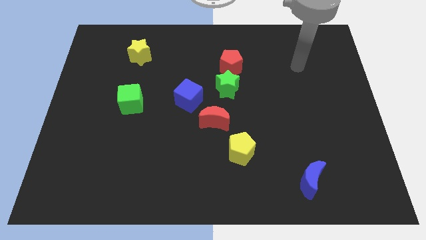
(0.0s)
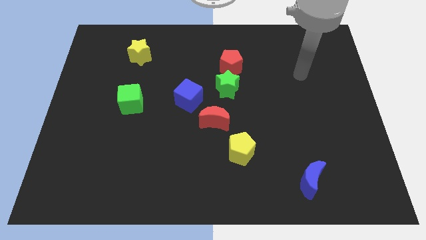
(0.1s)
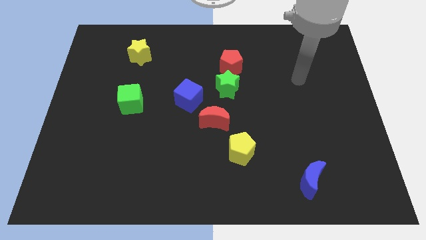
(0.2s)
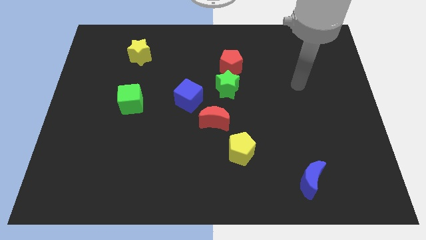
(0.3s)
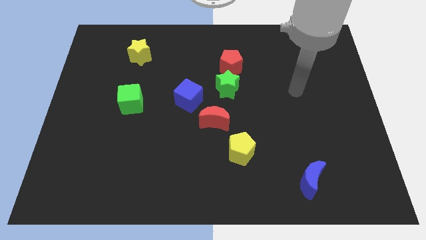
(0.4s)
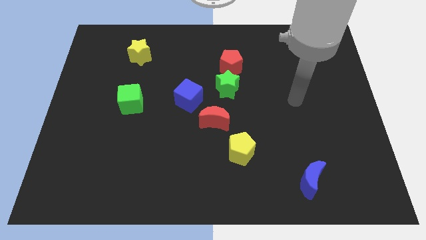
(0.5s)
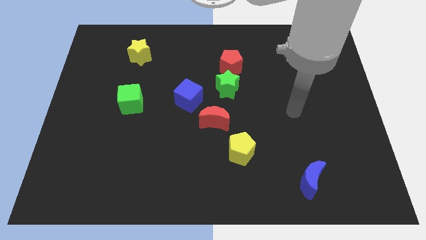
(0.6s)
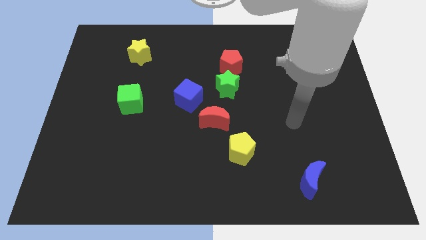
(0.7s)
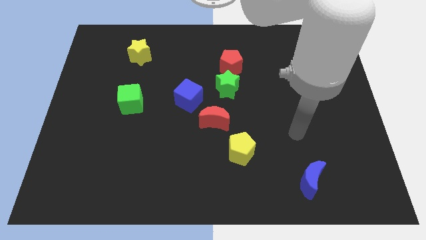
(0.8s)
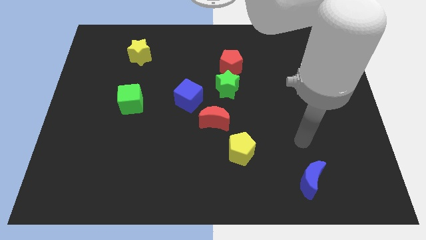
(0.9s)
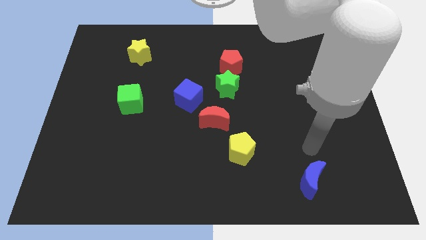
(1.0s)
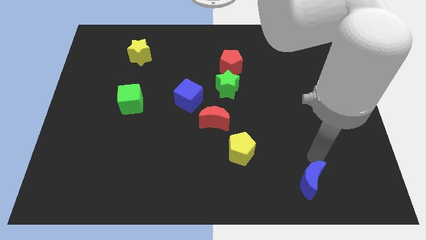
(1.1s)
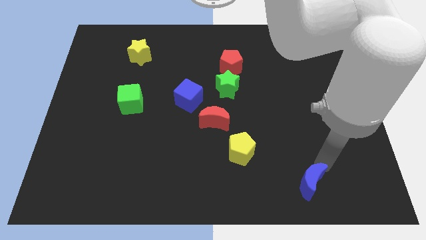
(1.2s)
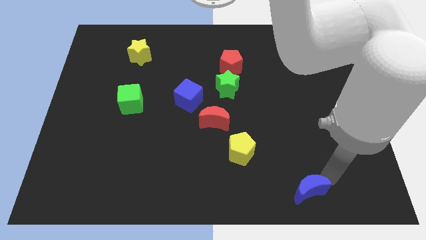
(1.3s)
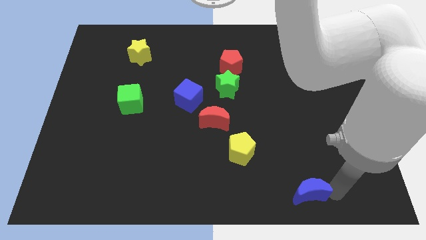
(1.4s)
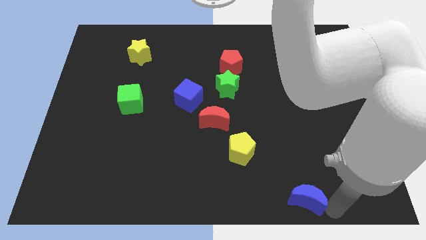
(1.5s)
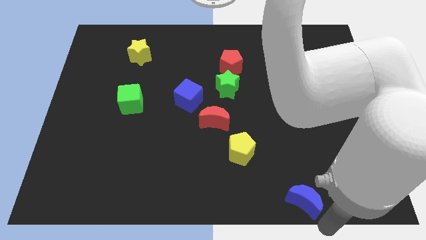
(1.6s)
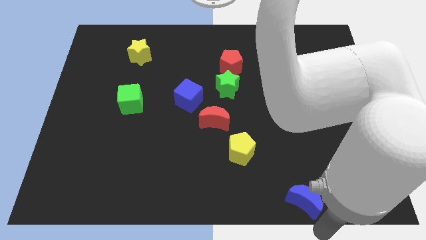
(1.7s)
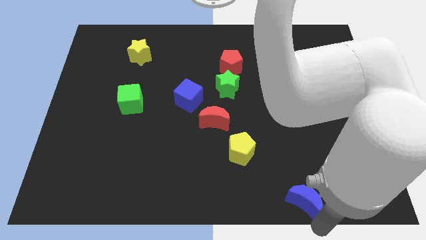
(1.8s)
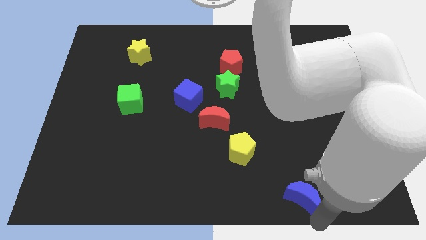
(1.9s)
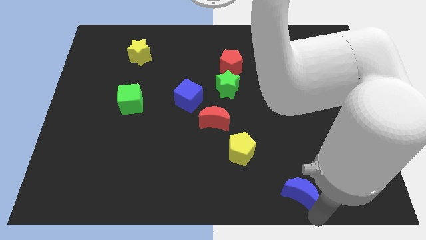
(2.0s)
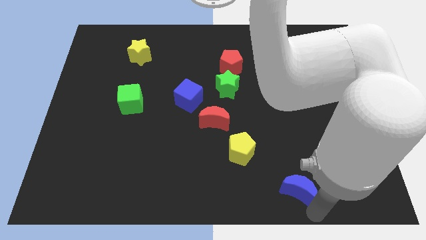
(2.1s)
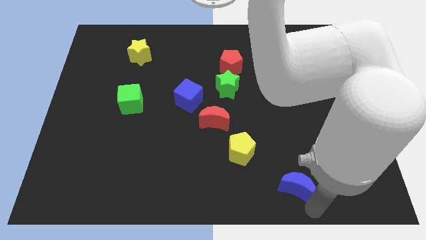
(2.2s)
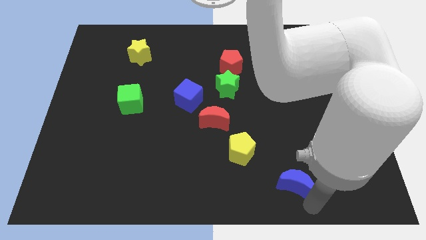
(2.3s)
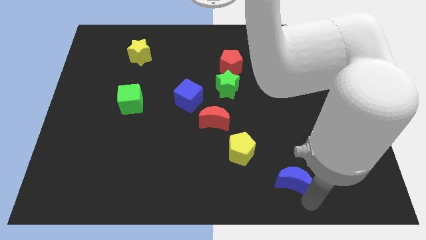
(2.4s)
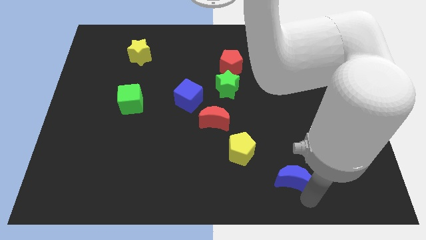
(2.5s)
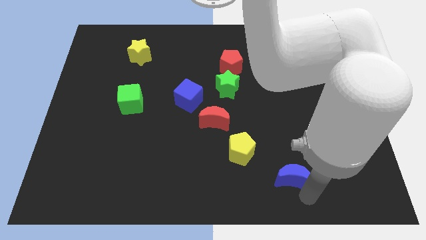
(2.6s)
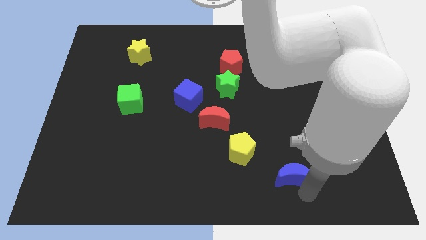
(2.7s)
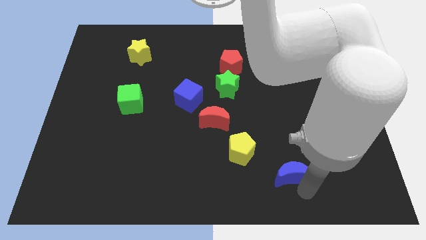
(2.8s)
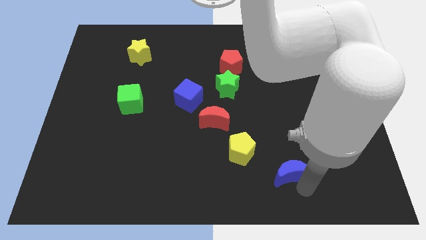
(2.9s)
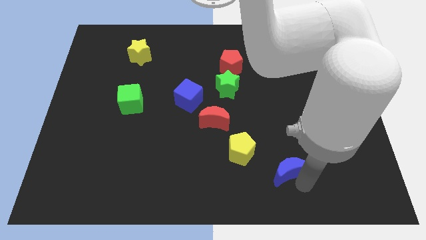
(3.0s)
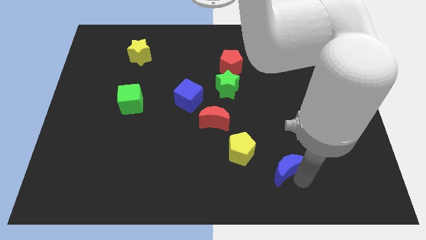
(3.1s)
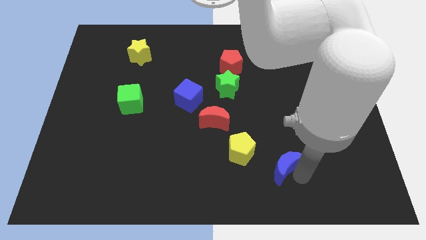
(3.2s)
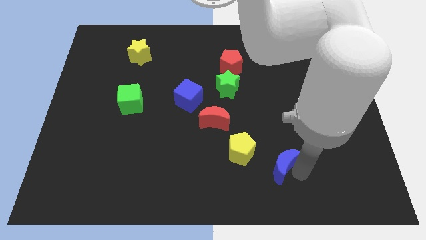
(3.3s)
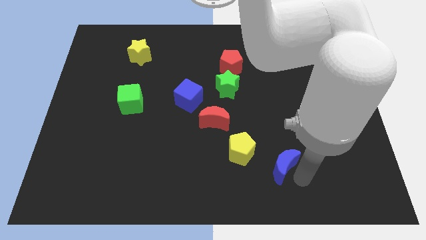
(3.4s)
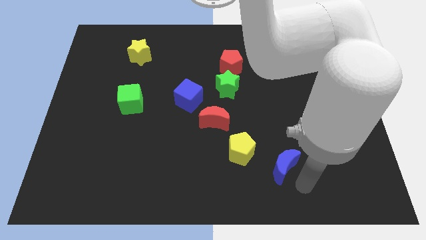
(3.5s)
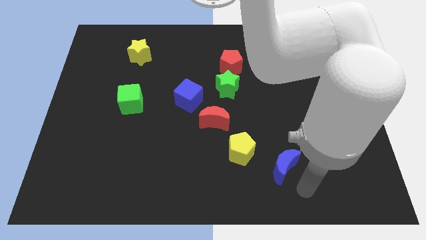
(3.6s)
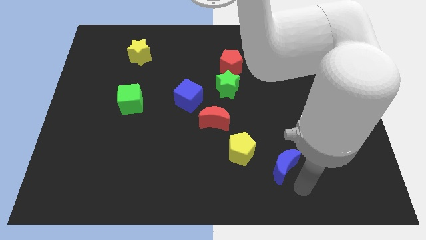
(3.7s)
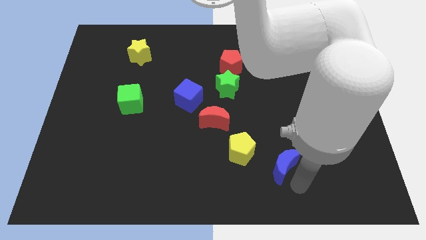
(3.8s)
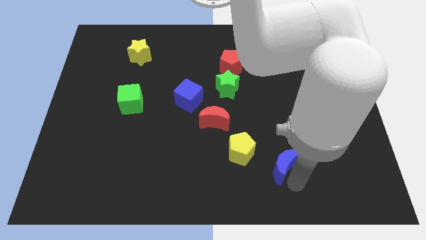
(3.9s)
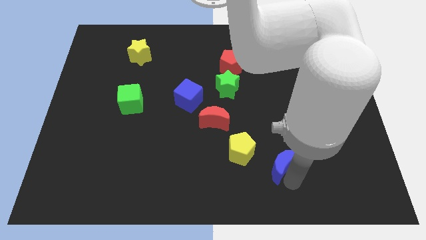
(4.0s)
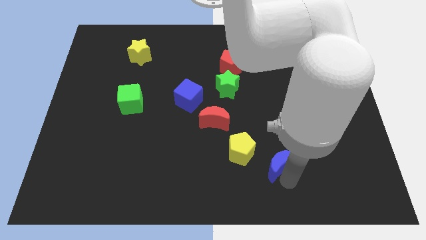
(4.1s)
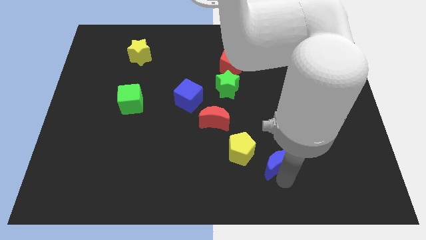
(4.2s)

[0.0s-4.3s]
slide the blue moon somewhat up and to the left

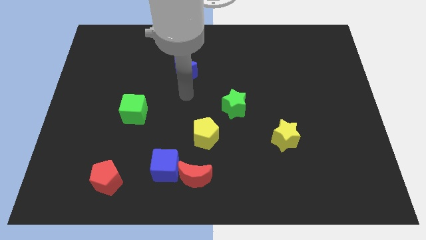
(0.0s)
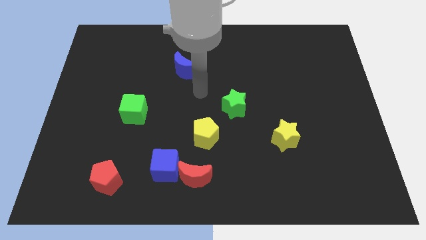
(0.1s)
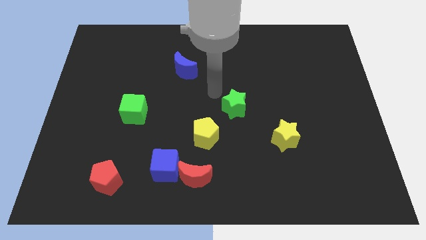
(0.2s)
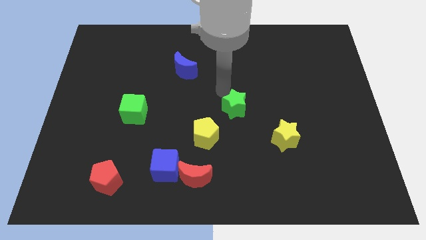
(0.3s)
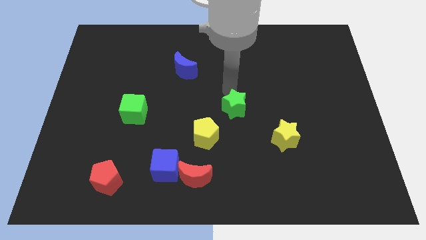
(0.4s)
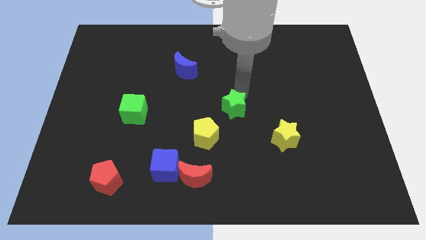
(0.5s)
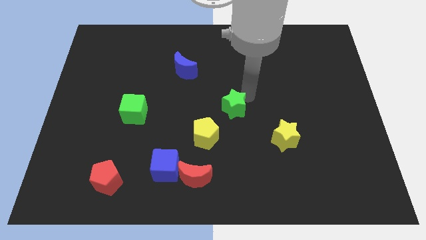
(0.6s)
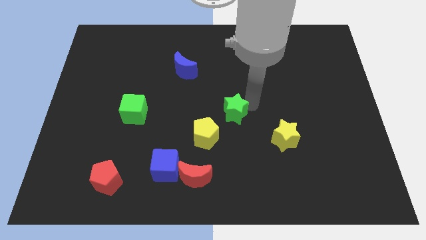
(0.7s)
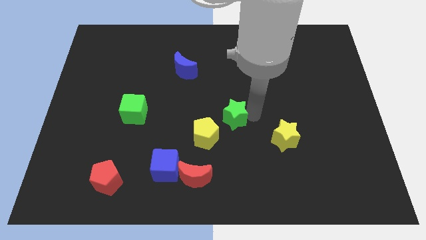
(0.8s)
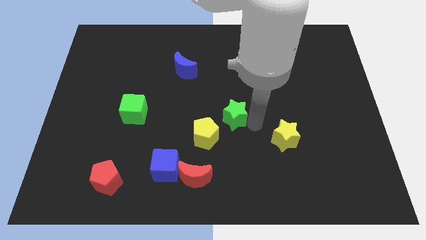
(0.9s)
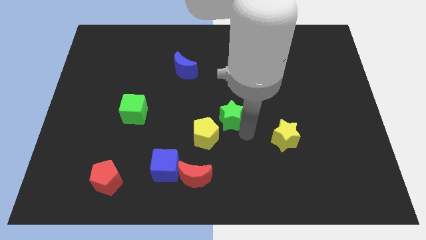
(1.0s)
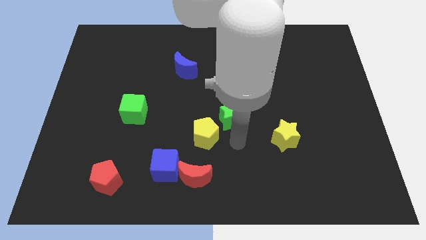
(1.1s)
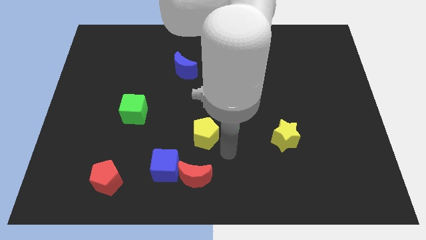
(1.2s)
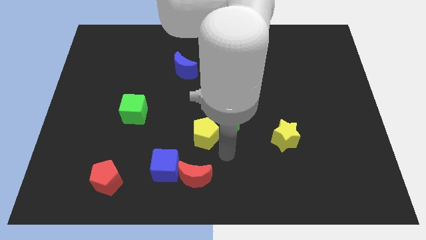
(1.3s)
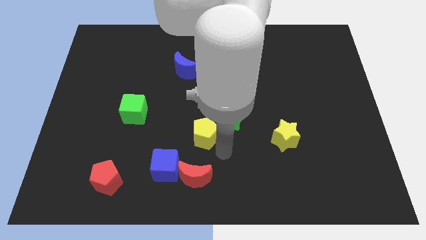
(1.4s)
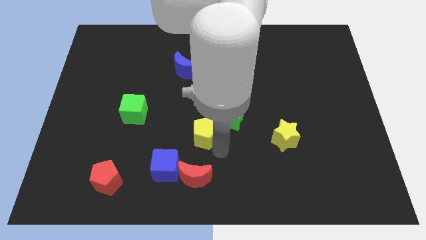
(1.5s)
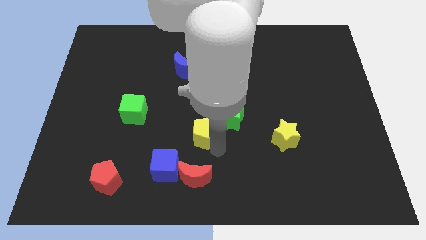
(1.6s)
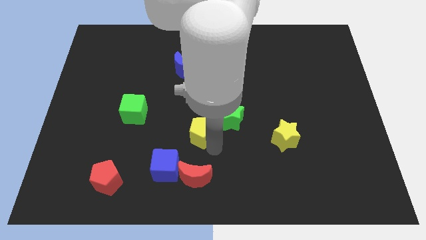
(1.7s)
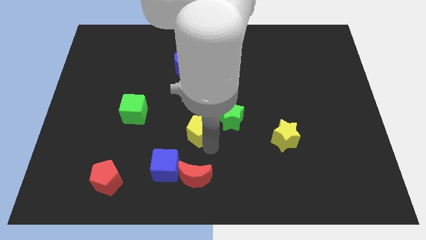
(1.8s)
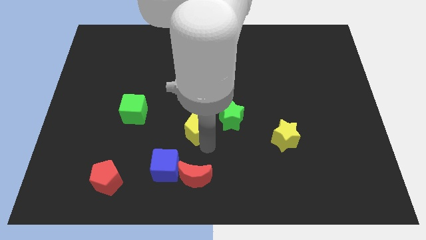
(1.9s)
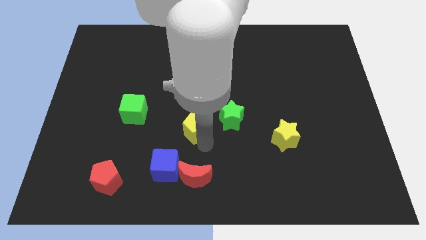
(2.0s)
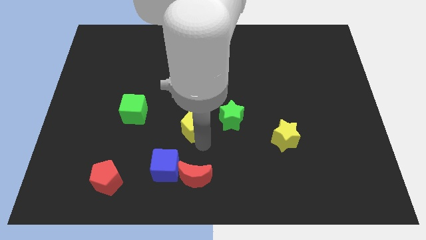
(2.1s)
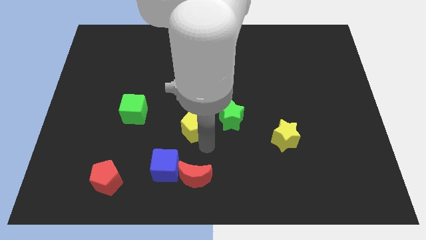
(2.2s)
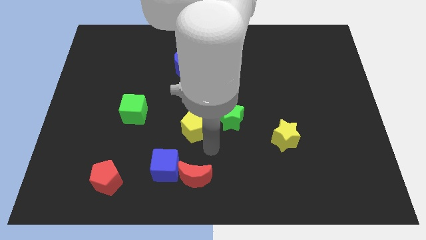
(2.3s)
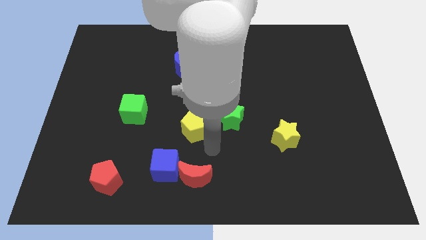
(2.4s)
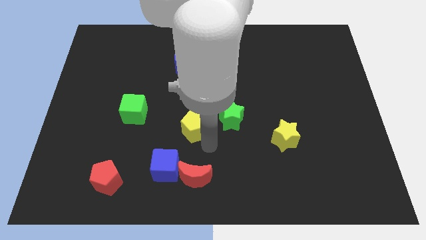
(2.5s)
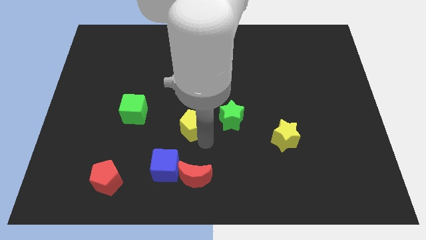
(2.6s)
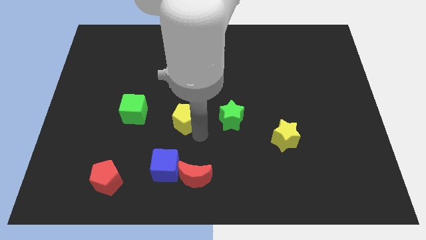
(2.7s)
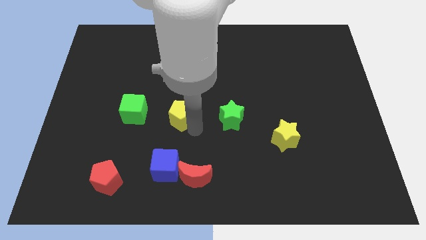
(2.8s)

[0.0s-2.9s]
move the yellow pentagon upwards and to the left slightly

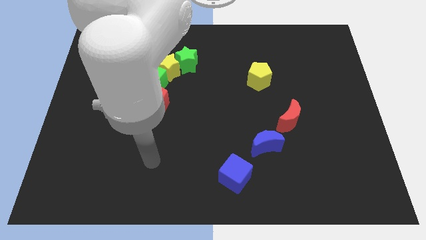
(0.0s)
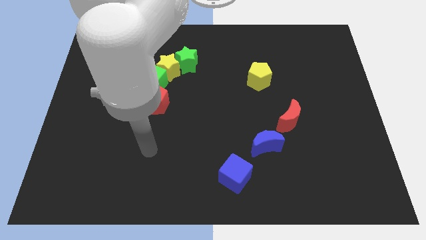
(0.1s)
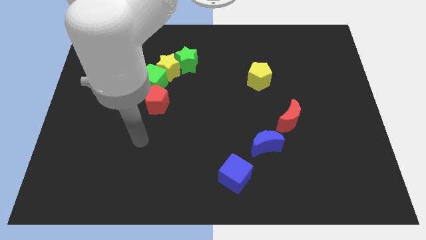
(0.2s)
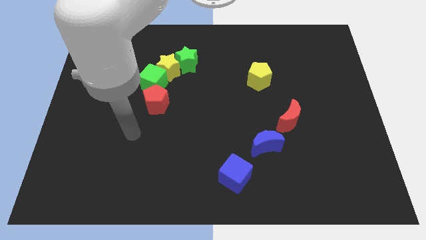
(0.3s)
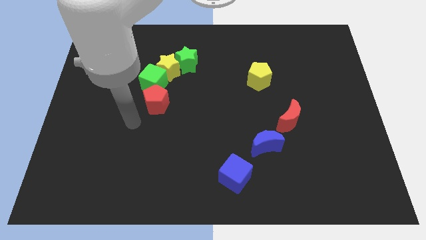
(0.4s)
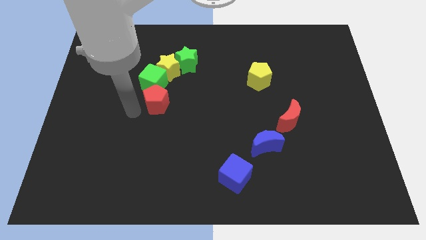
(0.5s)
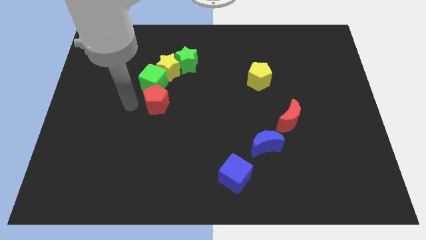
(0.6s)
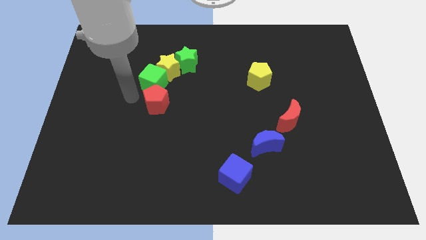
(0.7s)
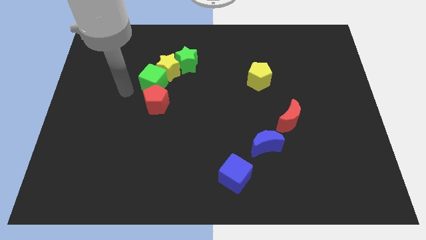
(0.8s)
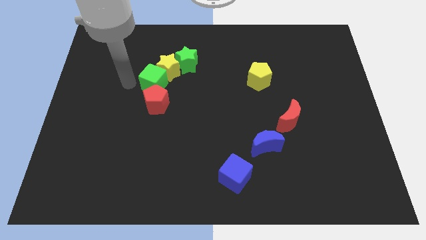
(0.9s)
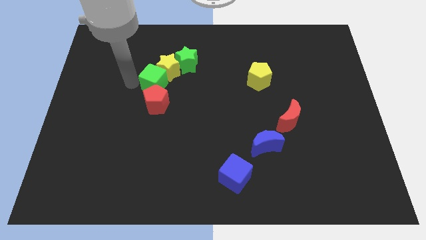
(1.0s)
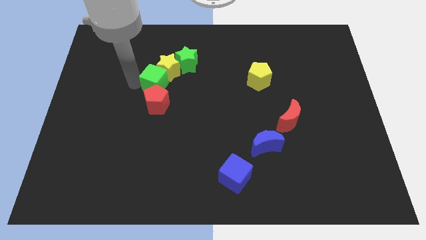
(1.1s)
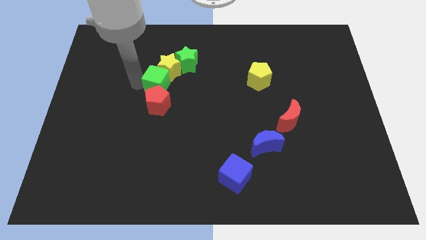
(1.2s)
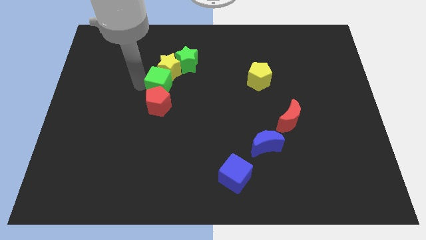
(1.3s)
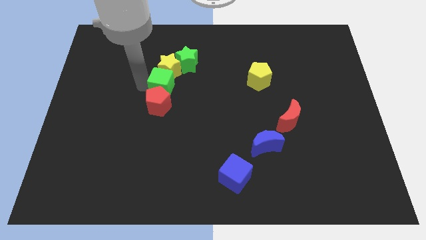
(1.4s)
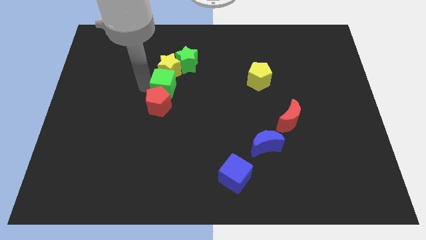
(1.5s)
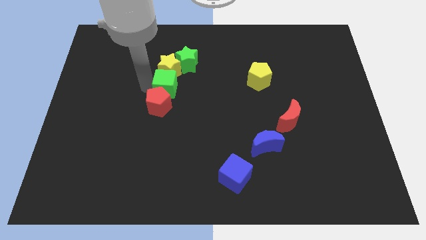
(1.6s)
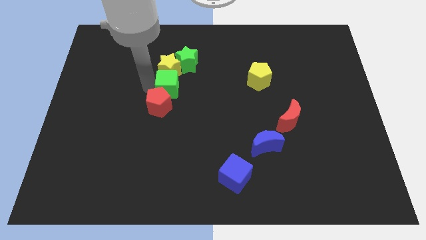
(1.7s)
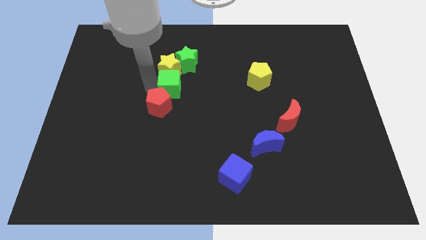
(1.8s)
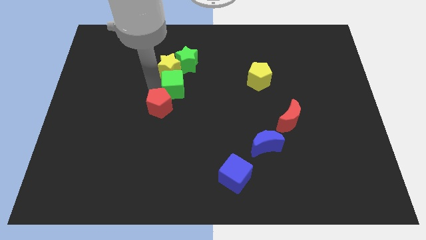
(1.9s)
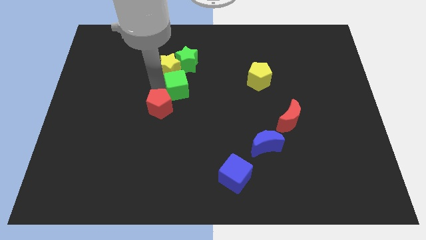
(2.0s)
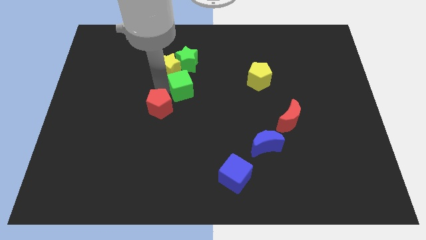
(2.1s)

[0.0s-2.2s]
push the green cube somewhat right
